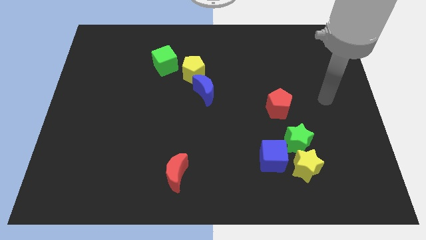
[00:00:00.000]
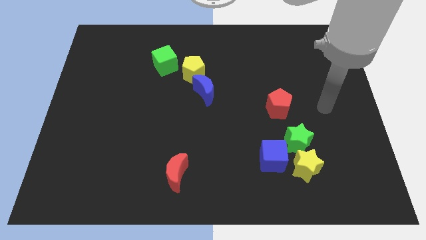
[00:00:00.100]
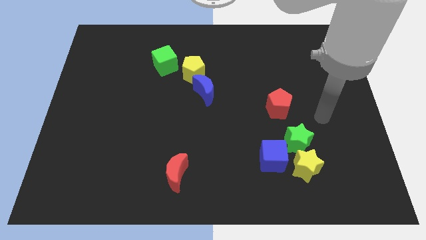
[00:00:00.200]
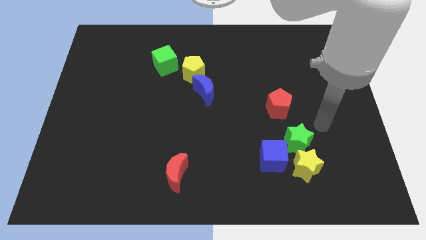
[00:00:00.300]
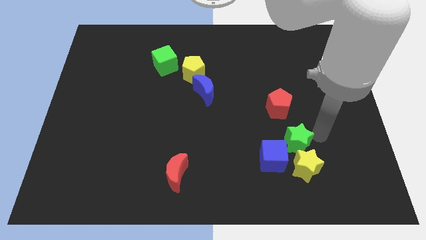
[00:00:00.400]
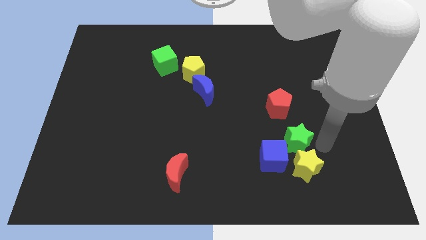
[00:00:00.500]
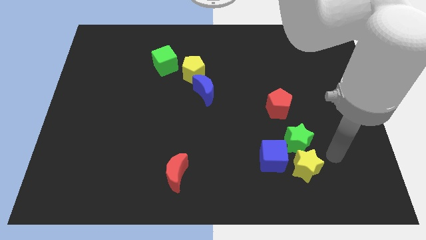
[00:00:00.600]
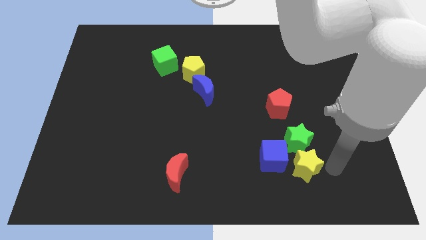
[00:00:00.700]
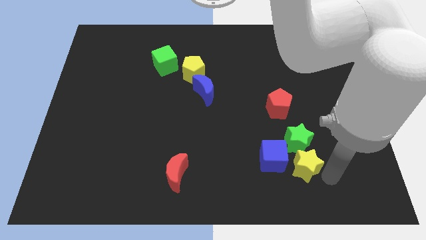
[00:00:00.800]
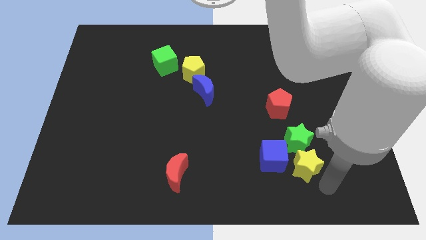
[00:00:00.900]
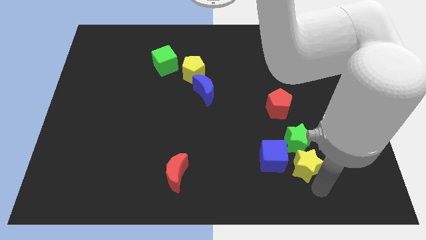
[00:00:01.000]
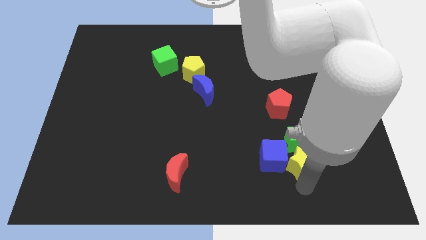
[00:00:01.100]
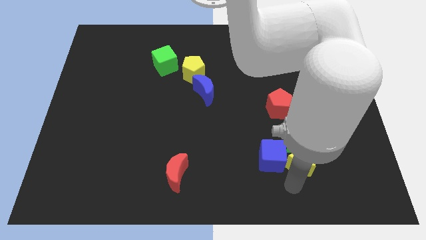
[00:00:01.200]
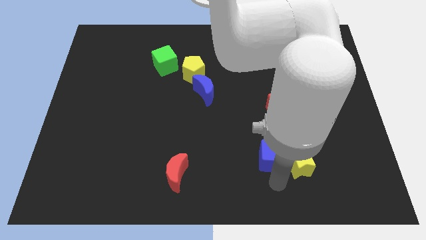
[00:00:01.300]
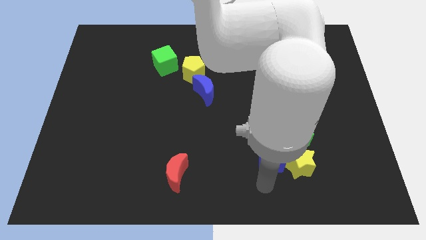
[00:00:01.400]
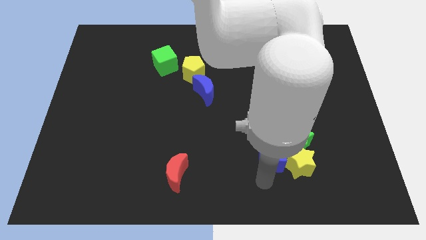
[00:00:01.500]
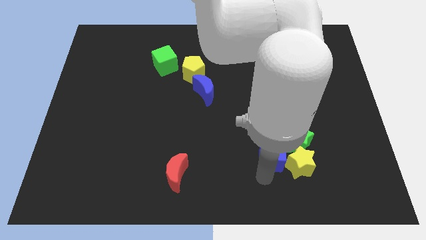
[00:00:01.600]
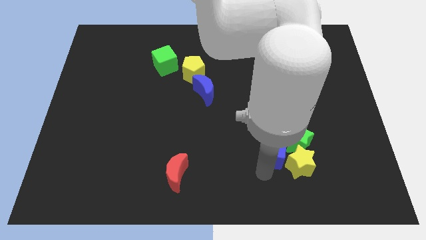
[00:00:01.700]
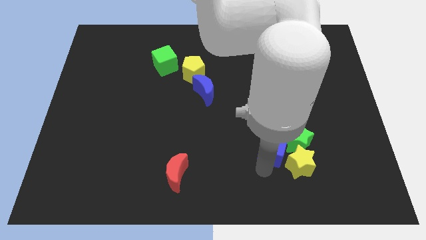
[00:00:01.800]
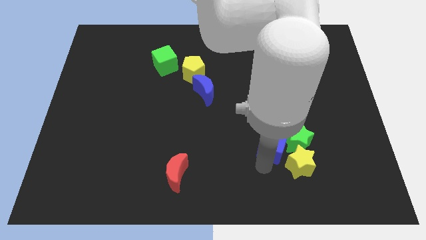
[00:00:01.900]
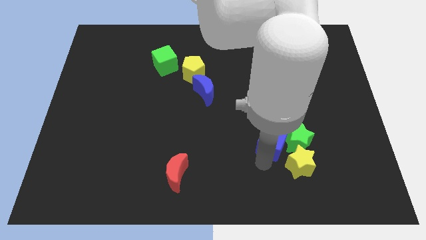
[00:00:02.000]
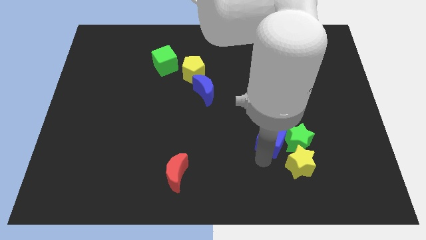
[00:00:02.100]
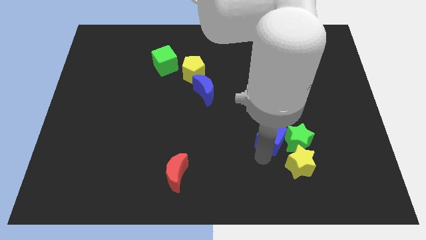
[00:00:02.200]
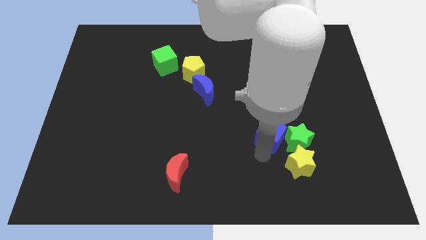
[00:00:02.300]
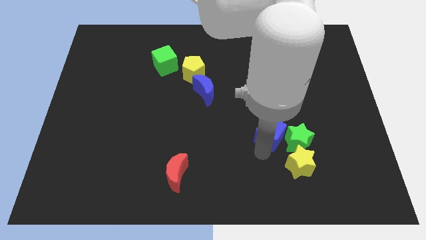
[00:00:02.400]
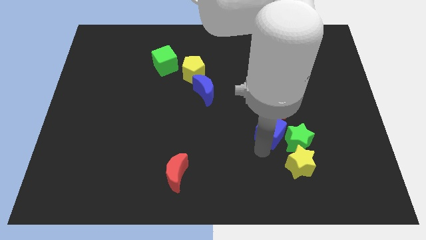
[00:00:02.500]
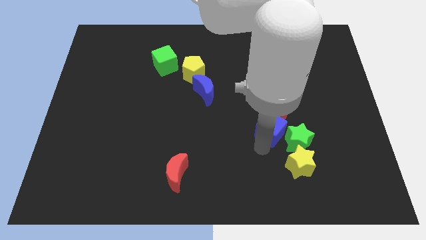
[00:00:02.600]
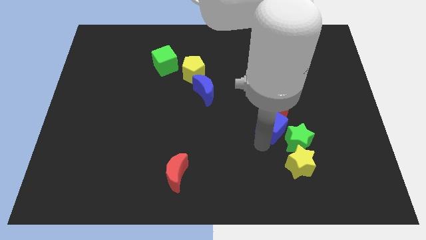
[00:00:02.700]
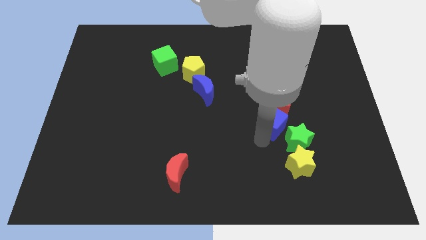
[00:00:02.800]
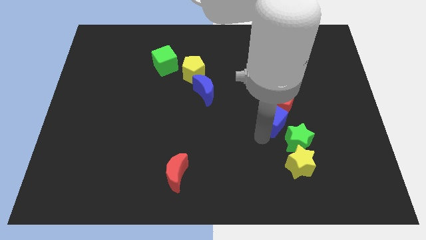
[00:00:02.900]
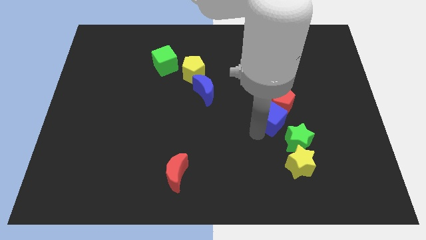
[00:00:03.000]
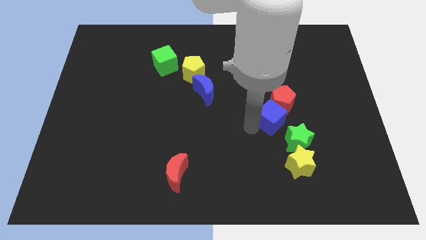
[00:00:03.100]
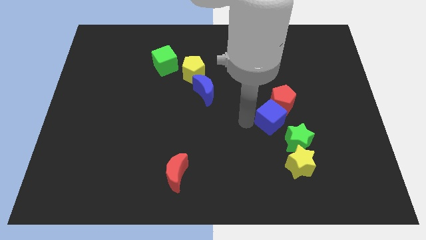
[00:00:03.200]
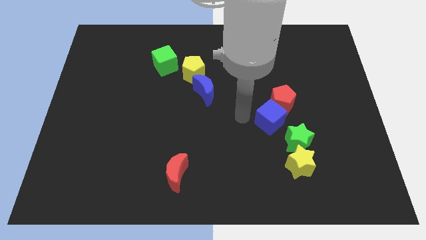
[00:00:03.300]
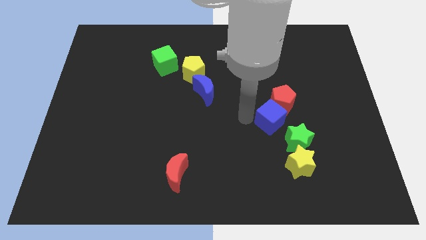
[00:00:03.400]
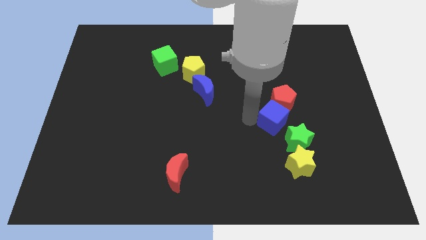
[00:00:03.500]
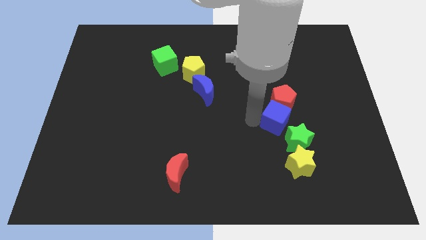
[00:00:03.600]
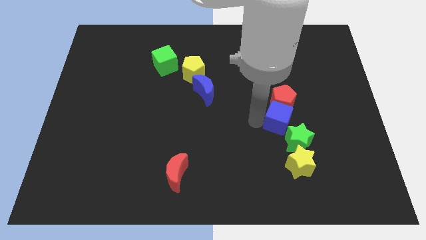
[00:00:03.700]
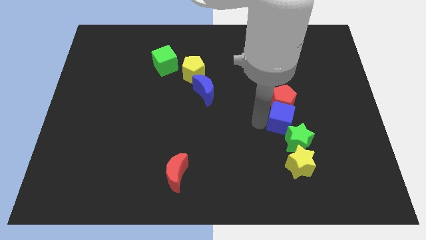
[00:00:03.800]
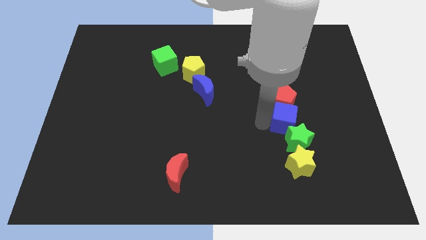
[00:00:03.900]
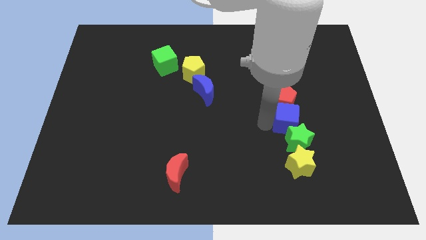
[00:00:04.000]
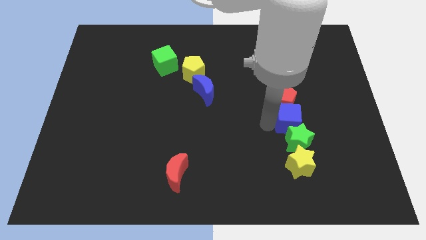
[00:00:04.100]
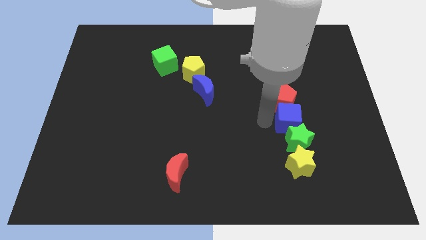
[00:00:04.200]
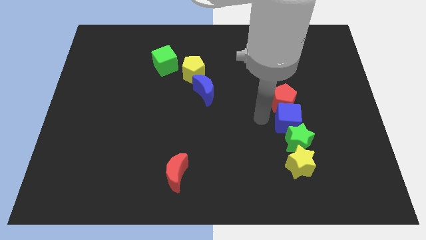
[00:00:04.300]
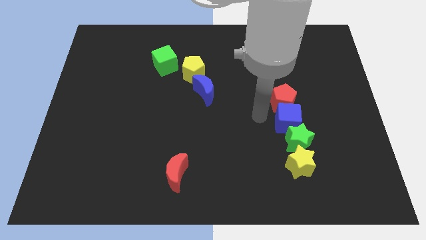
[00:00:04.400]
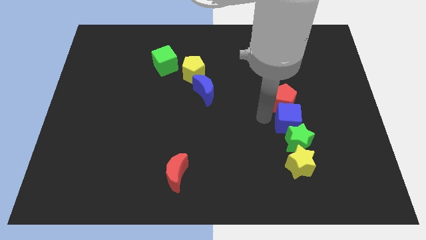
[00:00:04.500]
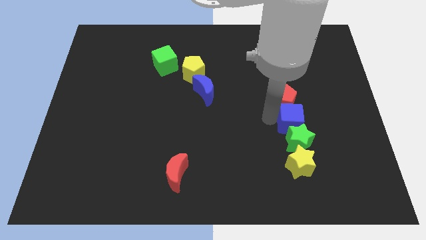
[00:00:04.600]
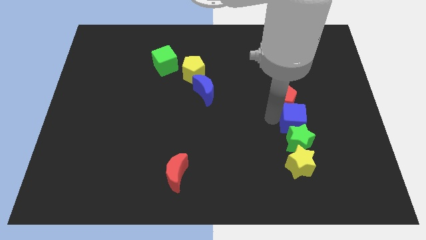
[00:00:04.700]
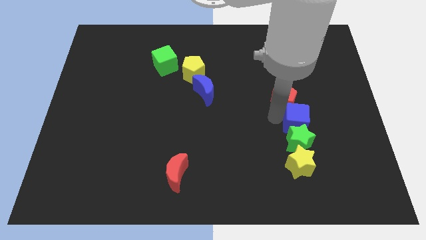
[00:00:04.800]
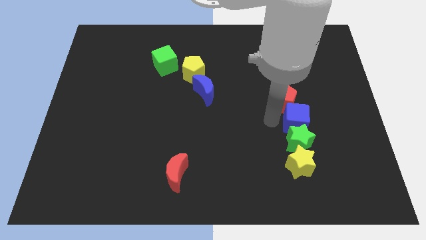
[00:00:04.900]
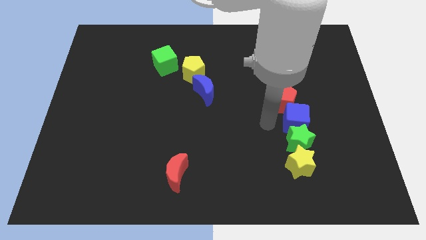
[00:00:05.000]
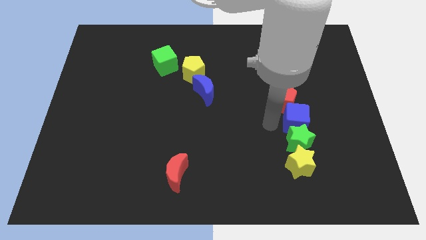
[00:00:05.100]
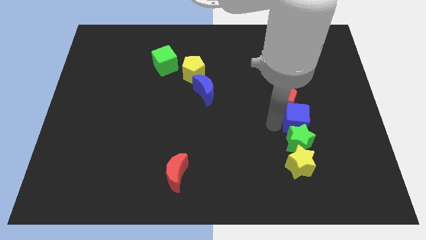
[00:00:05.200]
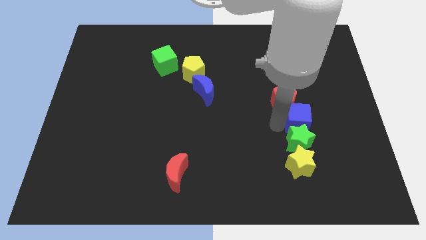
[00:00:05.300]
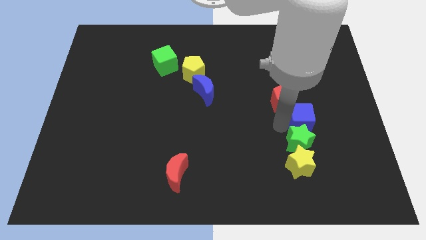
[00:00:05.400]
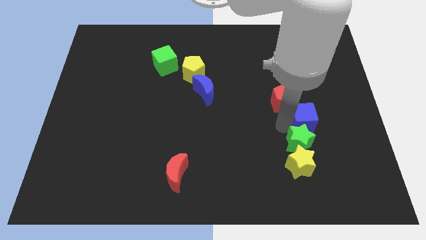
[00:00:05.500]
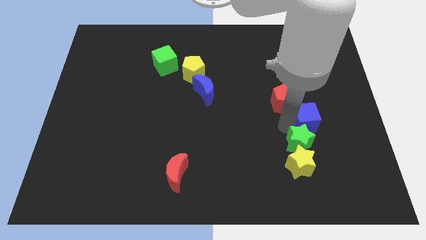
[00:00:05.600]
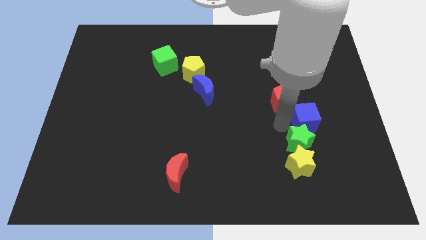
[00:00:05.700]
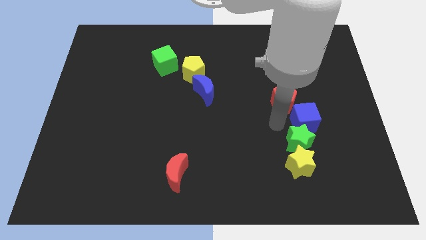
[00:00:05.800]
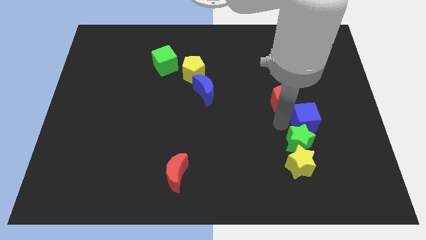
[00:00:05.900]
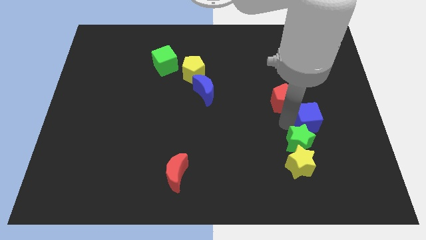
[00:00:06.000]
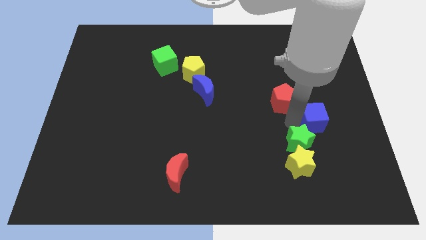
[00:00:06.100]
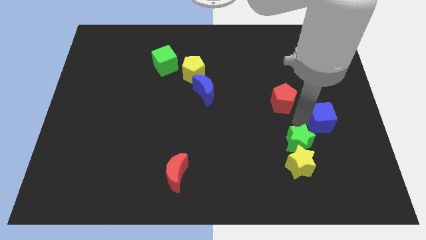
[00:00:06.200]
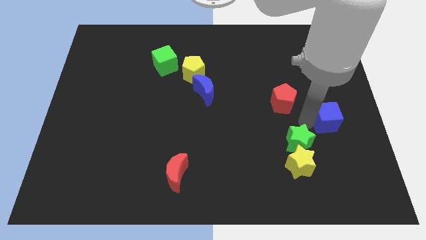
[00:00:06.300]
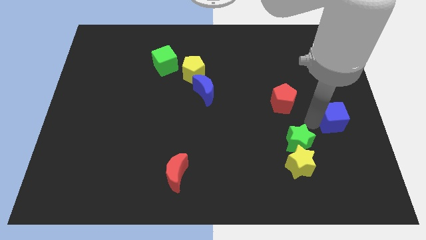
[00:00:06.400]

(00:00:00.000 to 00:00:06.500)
put the blue cube to the center right

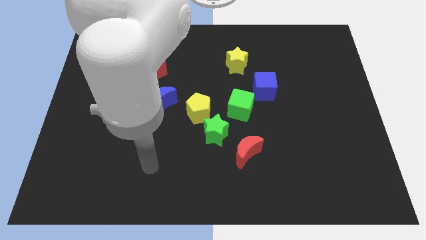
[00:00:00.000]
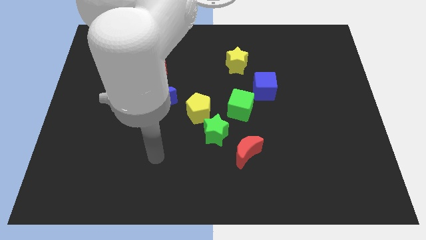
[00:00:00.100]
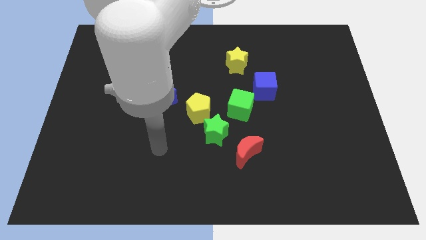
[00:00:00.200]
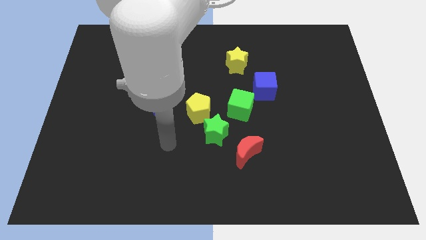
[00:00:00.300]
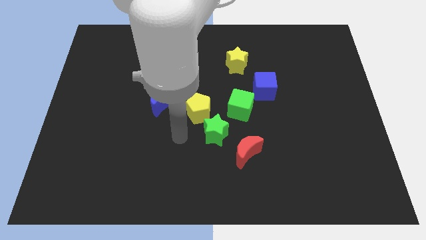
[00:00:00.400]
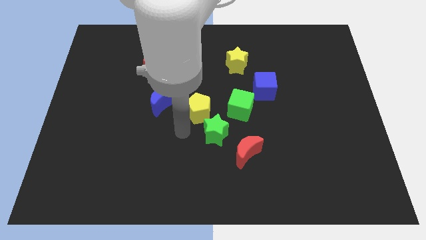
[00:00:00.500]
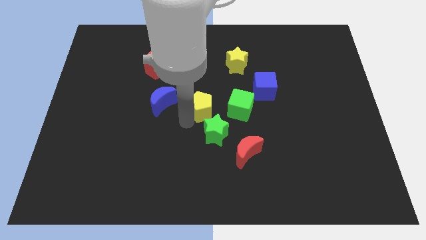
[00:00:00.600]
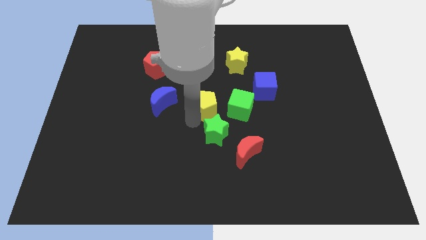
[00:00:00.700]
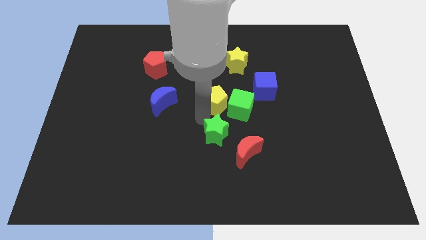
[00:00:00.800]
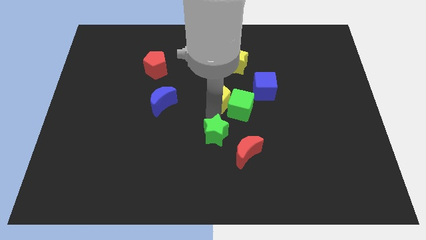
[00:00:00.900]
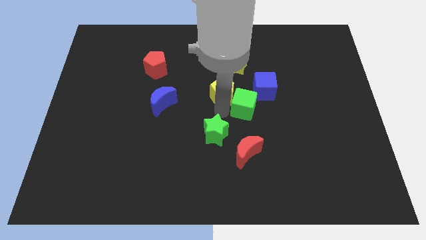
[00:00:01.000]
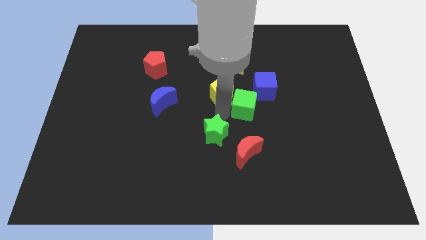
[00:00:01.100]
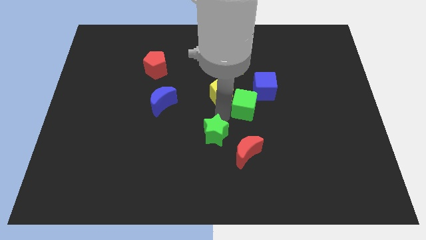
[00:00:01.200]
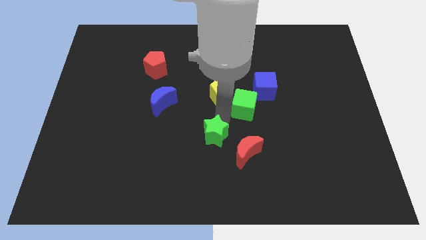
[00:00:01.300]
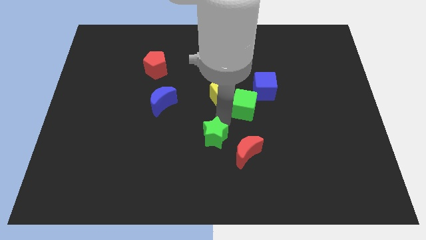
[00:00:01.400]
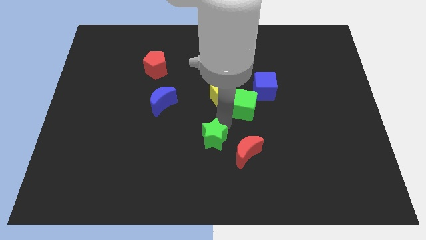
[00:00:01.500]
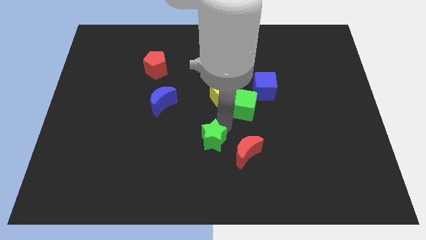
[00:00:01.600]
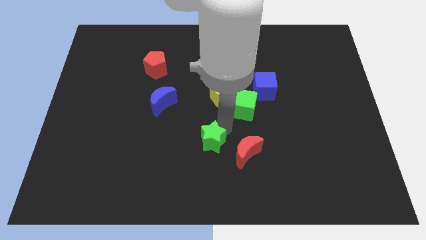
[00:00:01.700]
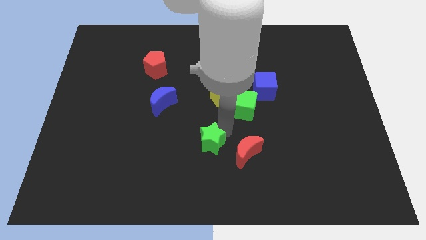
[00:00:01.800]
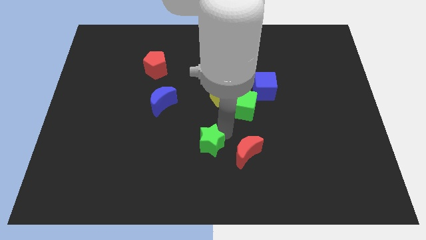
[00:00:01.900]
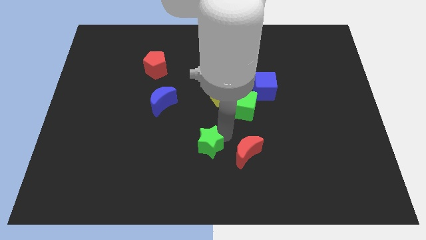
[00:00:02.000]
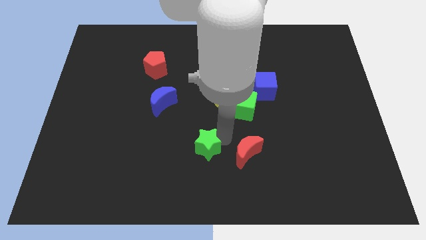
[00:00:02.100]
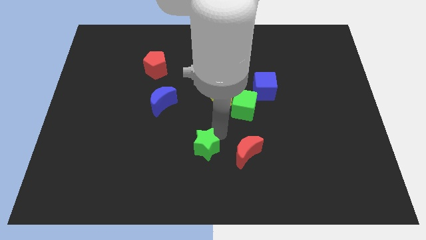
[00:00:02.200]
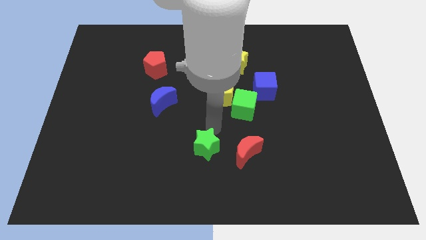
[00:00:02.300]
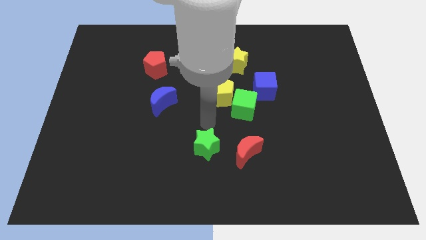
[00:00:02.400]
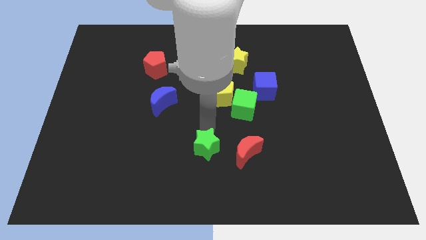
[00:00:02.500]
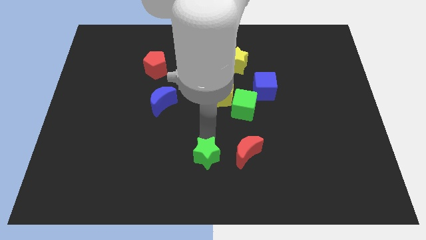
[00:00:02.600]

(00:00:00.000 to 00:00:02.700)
move the green star to the bottom side
